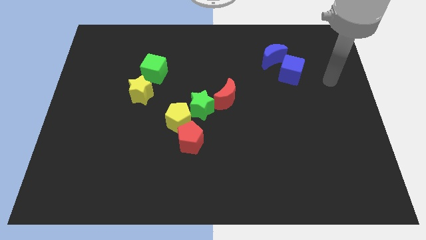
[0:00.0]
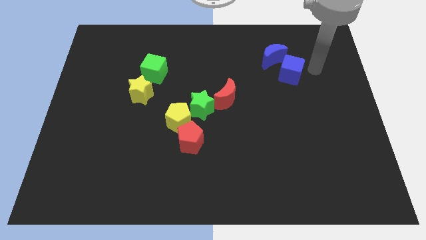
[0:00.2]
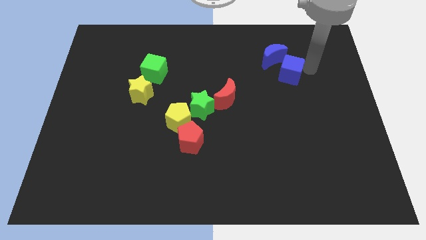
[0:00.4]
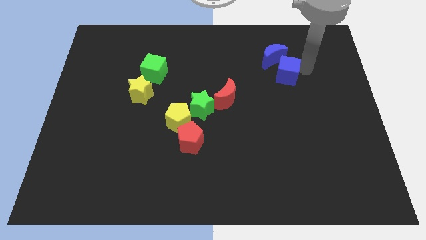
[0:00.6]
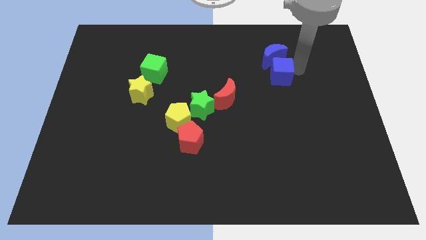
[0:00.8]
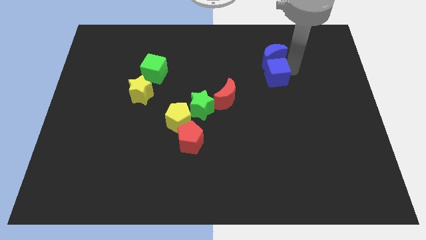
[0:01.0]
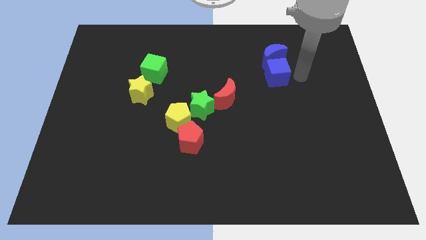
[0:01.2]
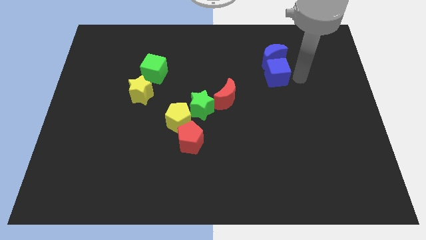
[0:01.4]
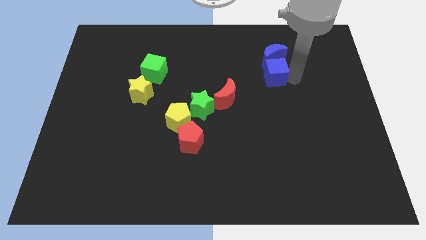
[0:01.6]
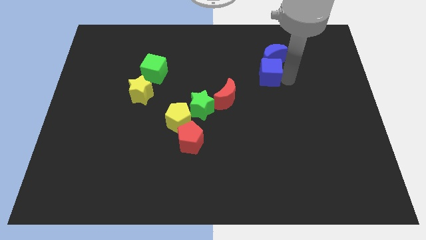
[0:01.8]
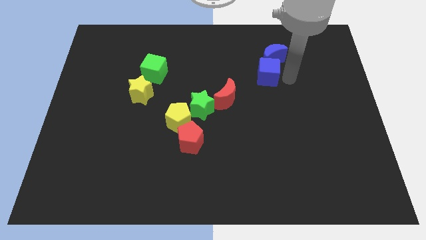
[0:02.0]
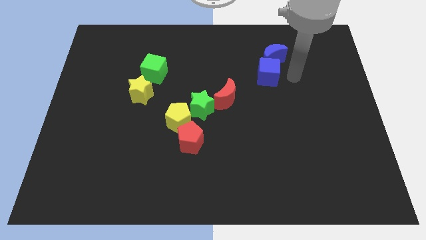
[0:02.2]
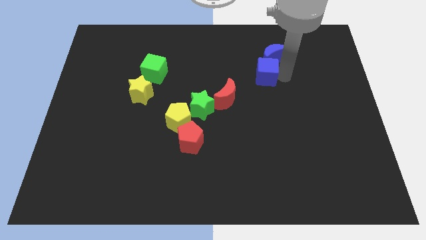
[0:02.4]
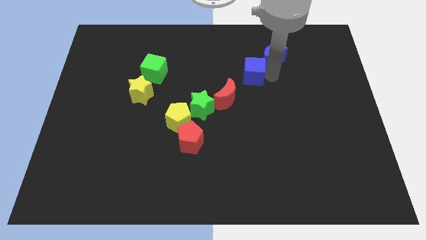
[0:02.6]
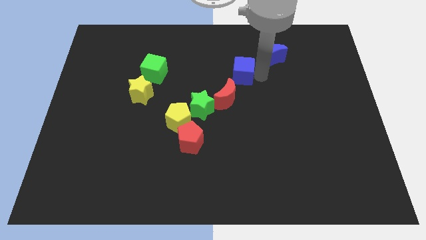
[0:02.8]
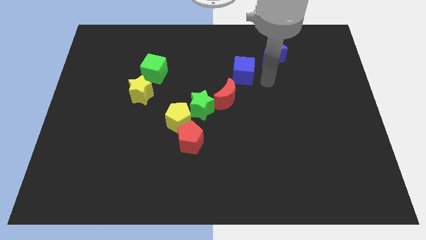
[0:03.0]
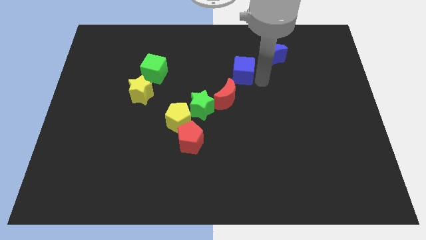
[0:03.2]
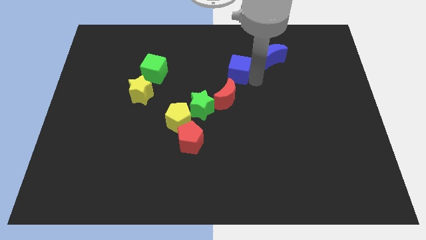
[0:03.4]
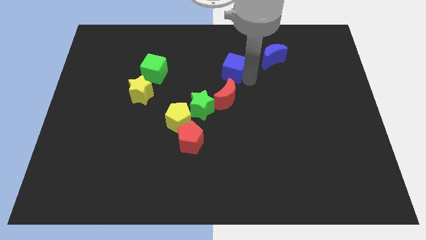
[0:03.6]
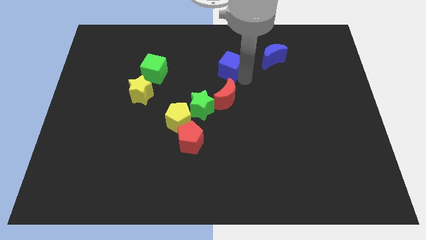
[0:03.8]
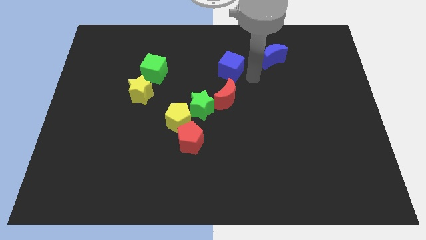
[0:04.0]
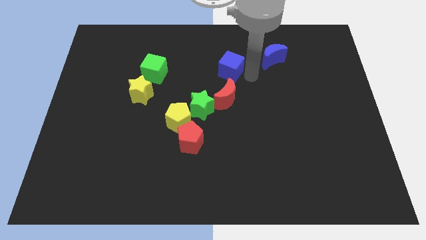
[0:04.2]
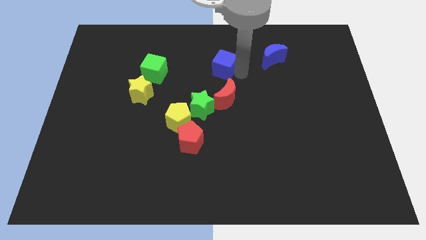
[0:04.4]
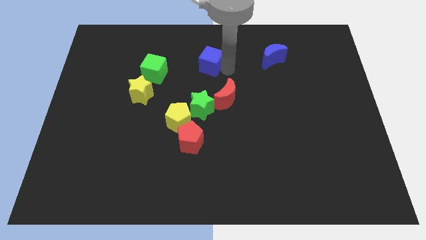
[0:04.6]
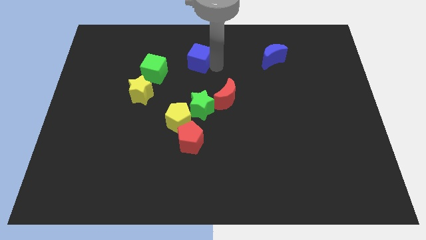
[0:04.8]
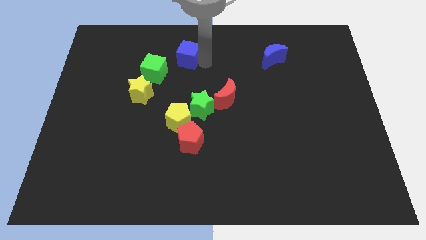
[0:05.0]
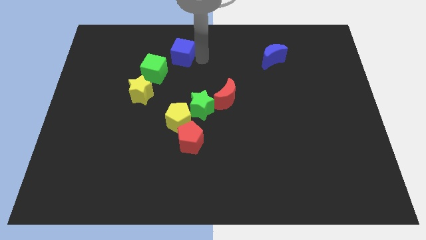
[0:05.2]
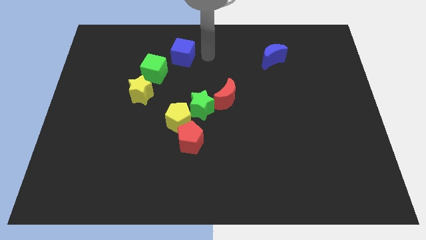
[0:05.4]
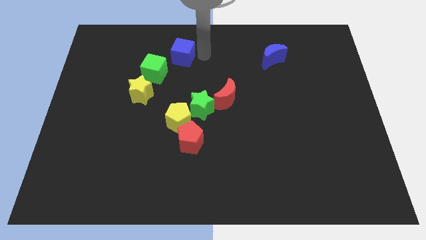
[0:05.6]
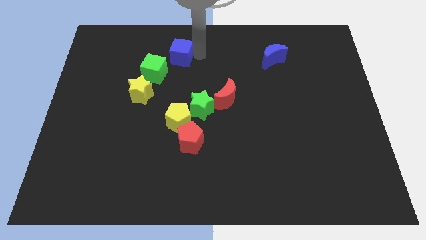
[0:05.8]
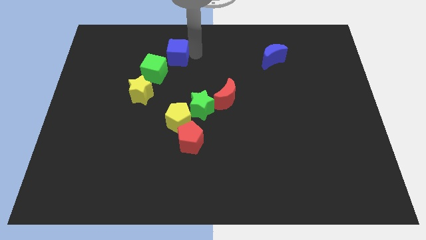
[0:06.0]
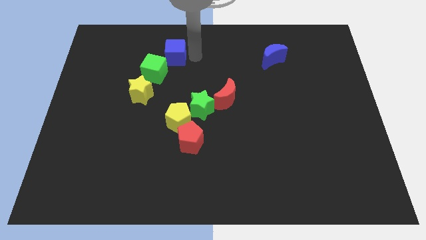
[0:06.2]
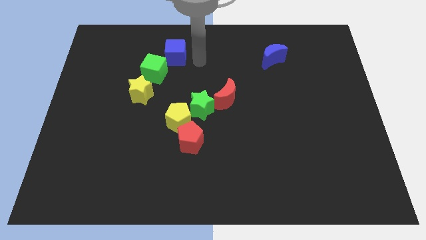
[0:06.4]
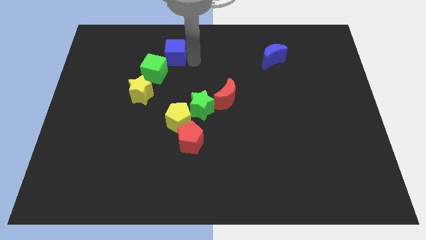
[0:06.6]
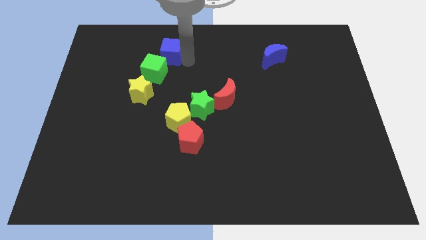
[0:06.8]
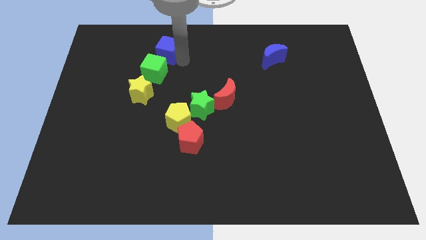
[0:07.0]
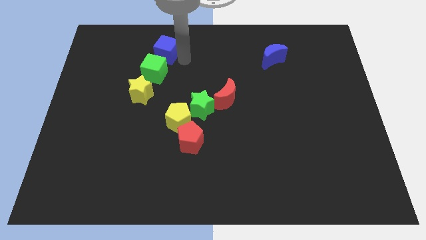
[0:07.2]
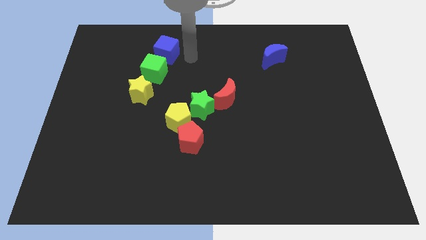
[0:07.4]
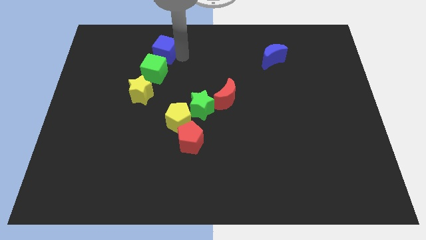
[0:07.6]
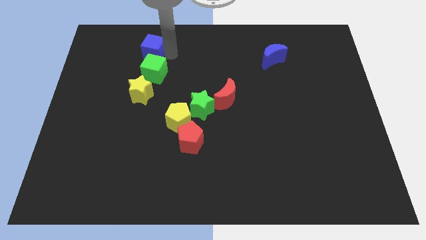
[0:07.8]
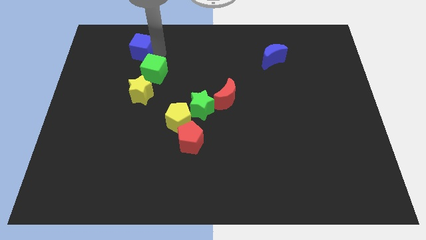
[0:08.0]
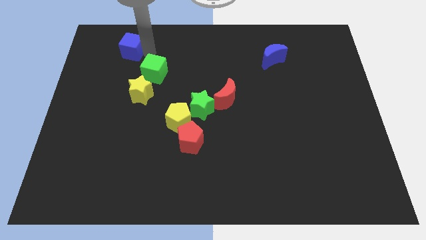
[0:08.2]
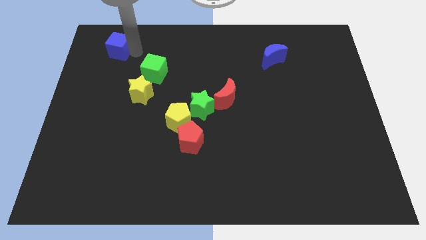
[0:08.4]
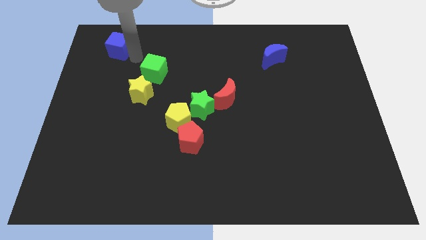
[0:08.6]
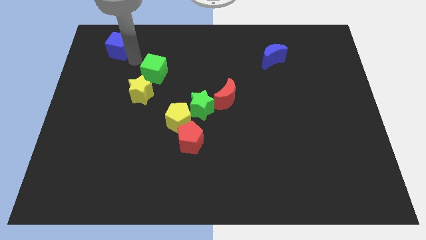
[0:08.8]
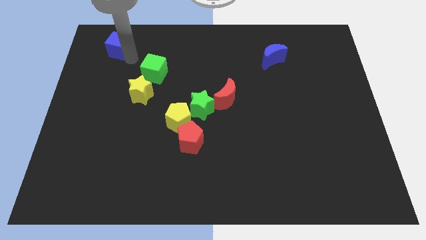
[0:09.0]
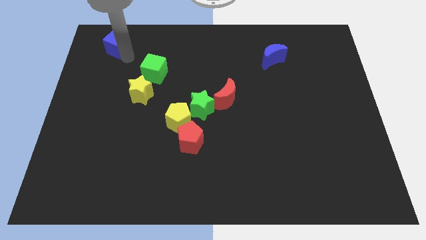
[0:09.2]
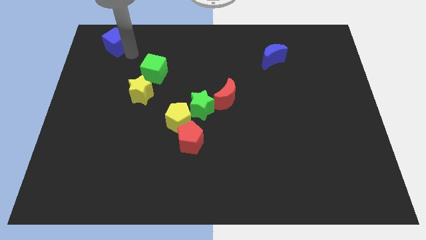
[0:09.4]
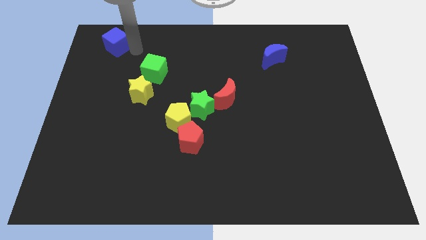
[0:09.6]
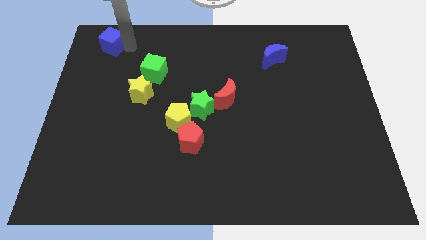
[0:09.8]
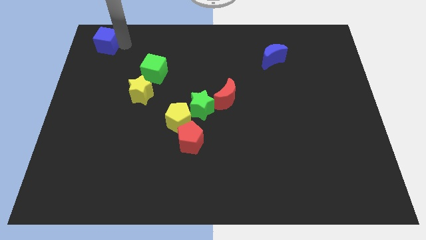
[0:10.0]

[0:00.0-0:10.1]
move the blue cube to the top left

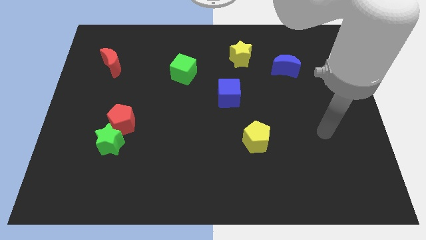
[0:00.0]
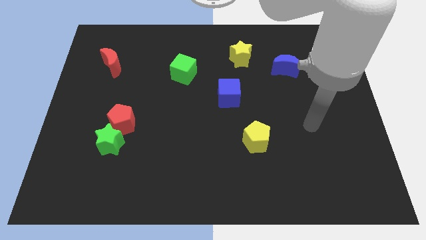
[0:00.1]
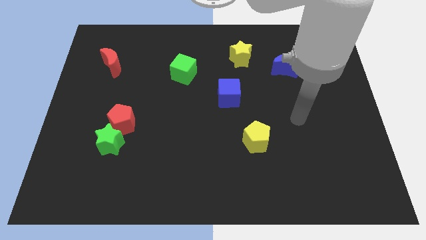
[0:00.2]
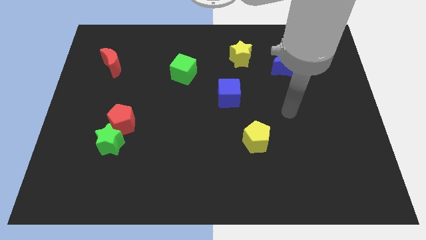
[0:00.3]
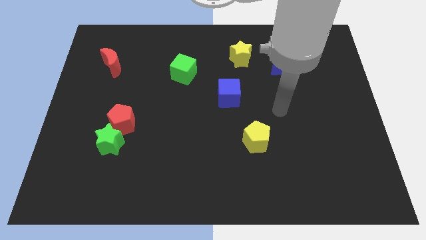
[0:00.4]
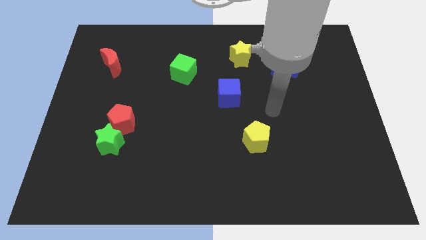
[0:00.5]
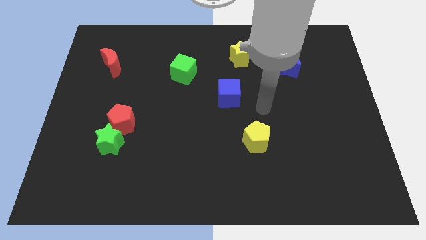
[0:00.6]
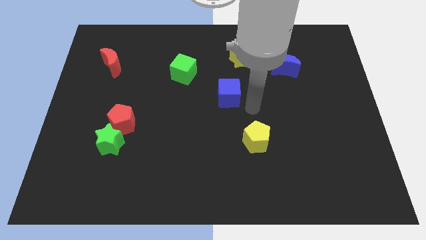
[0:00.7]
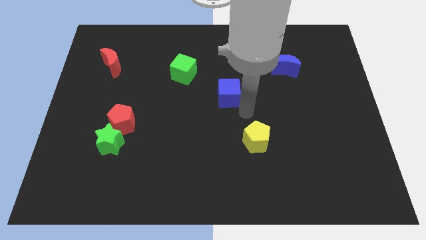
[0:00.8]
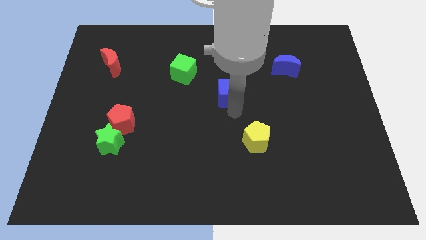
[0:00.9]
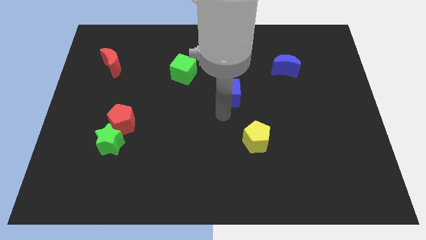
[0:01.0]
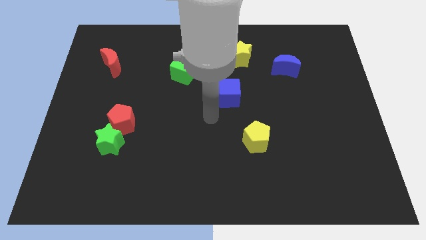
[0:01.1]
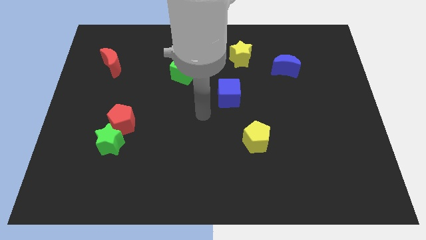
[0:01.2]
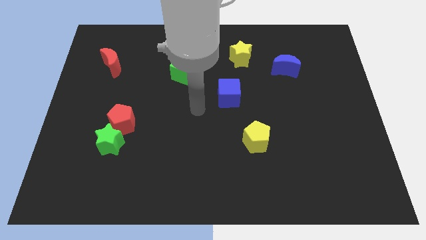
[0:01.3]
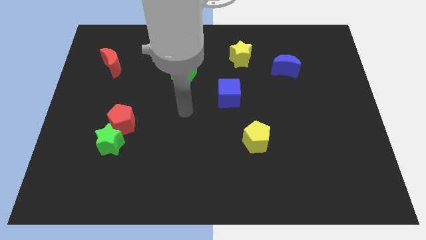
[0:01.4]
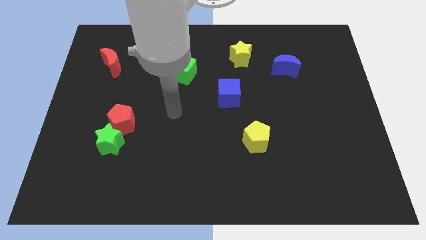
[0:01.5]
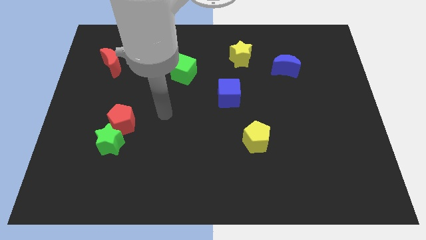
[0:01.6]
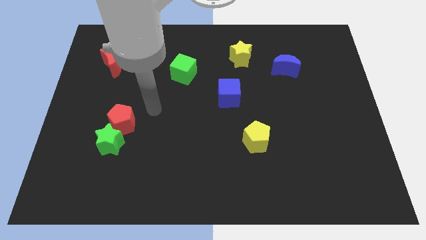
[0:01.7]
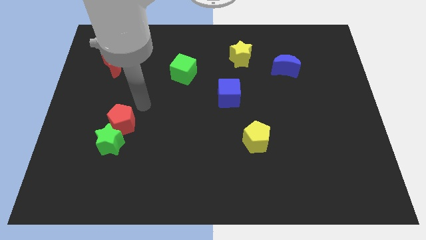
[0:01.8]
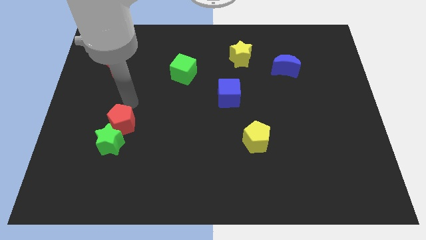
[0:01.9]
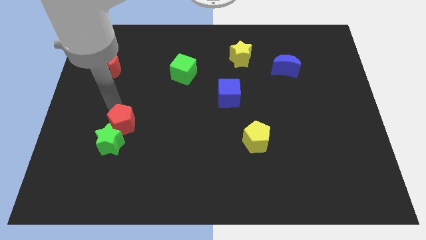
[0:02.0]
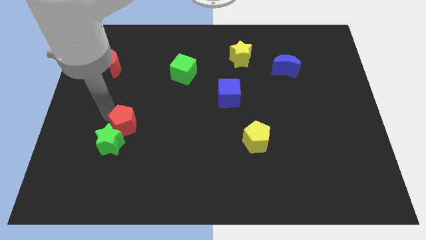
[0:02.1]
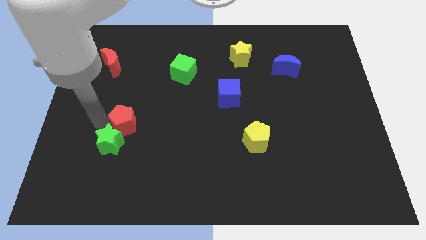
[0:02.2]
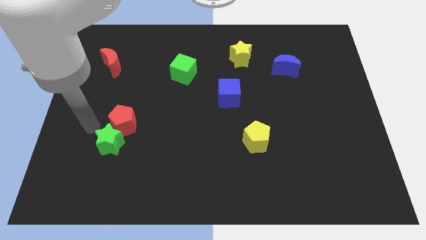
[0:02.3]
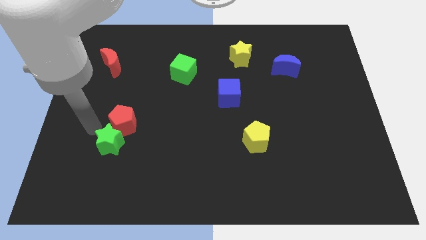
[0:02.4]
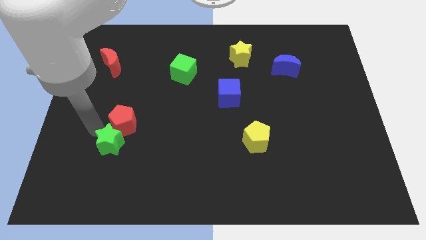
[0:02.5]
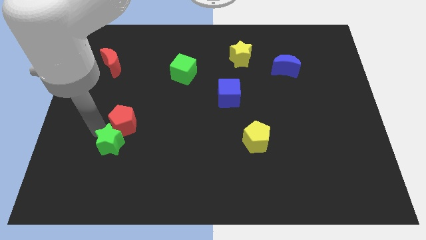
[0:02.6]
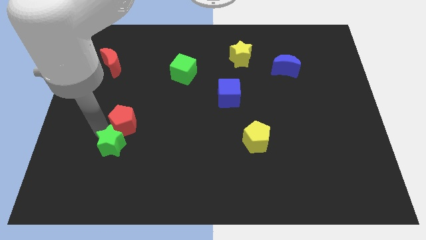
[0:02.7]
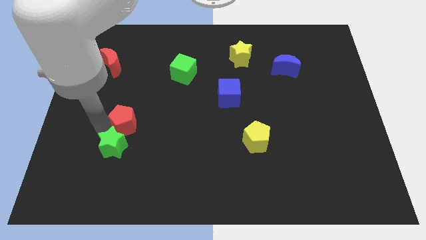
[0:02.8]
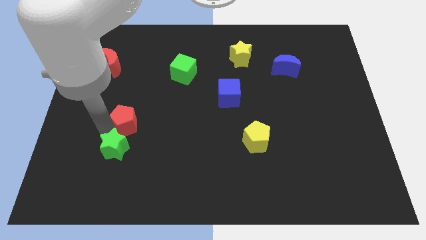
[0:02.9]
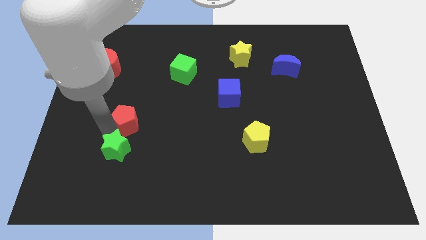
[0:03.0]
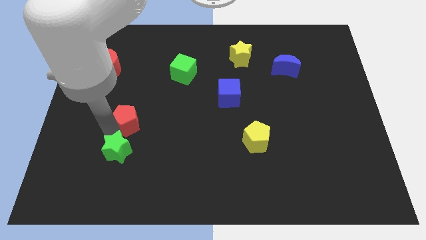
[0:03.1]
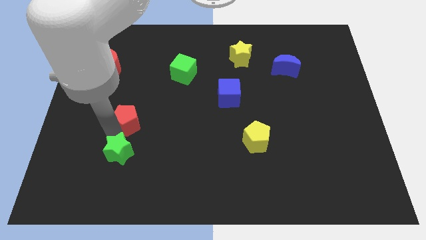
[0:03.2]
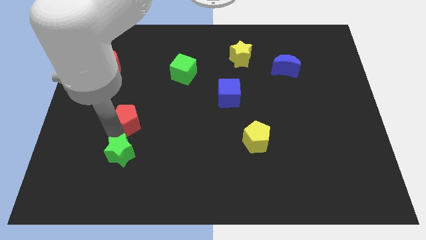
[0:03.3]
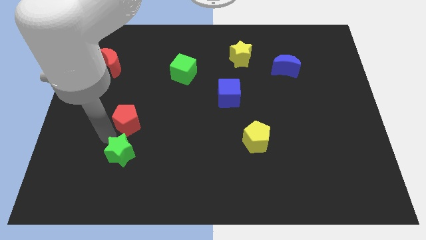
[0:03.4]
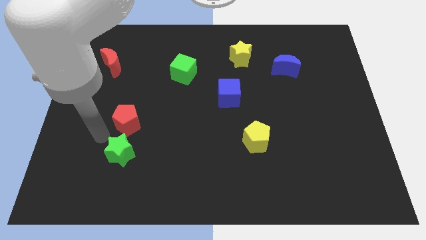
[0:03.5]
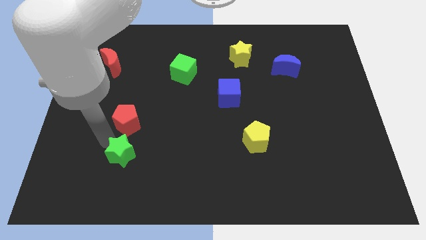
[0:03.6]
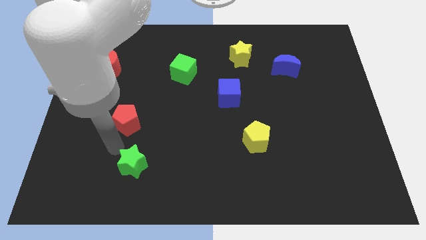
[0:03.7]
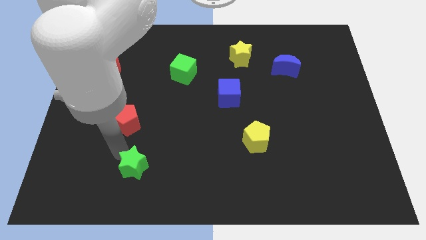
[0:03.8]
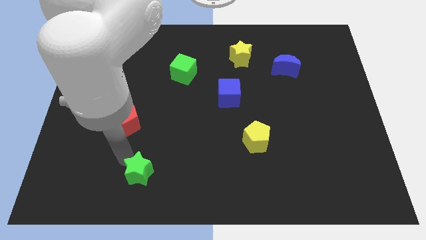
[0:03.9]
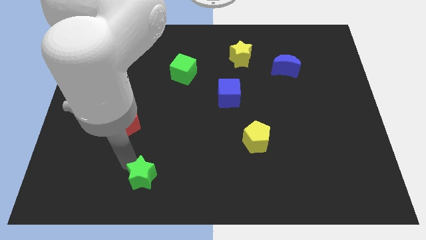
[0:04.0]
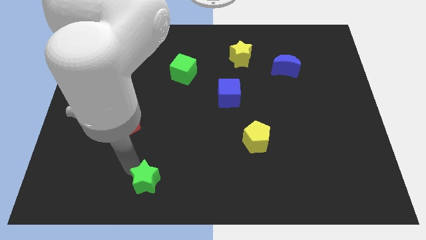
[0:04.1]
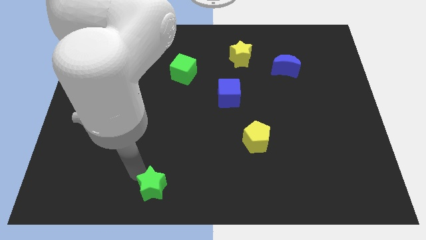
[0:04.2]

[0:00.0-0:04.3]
move the green star to the bottom side
